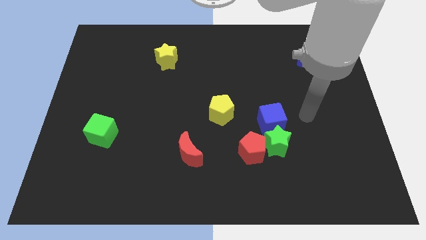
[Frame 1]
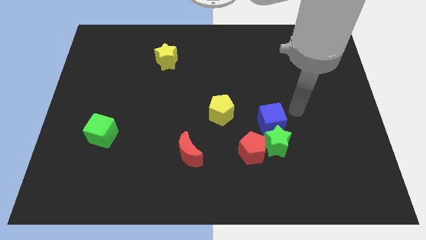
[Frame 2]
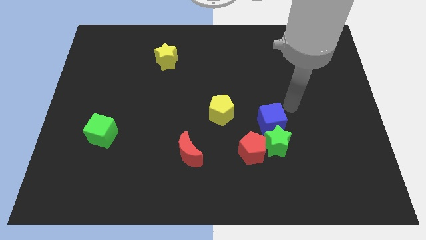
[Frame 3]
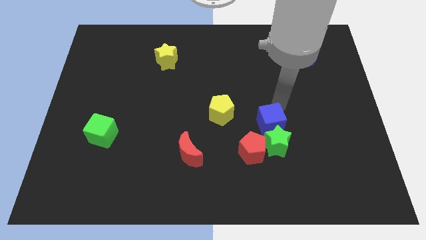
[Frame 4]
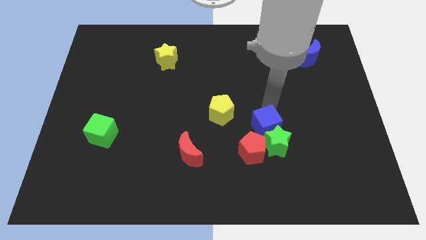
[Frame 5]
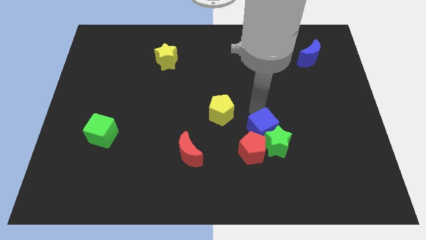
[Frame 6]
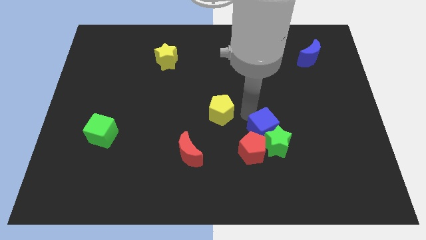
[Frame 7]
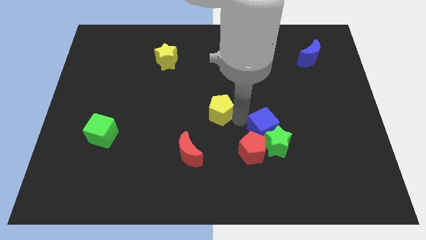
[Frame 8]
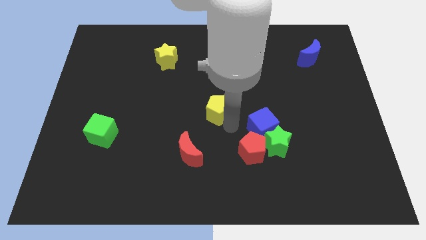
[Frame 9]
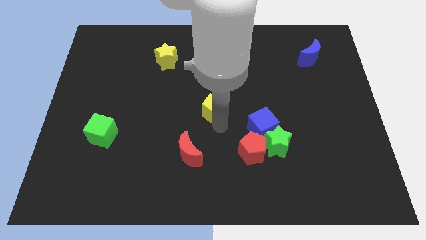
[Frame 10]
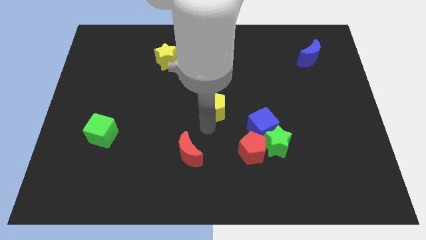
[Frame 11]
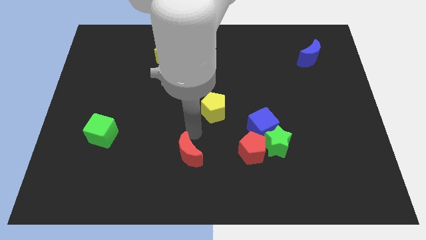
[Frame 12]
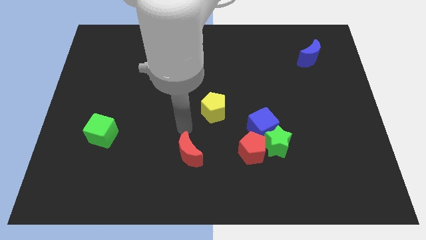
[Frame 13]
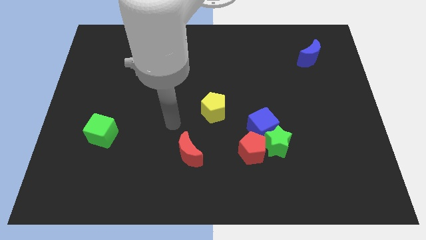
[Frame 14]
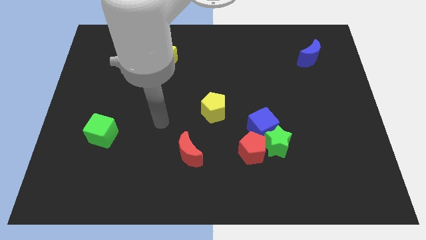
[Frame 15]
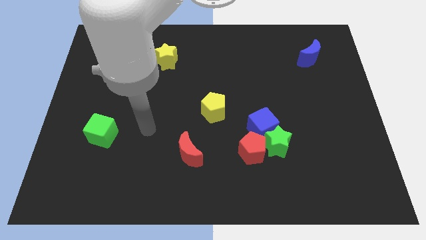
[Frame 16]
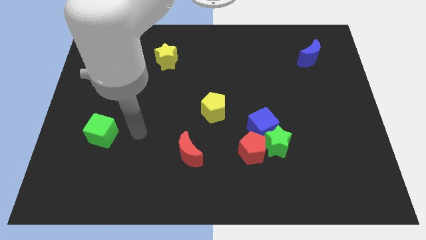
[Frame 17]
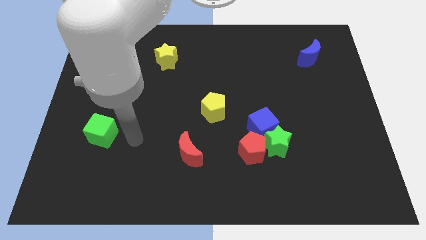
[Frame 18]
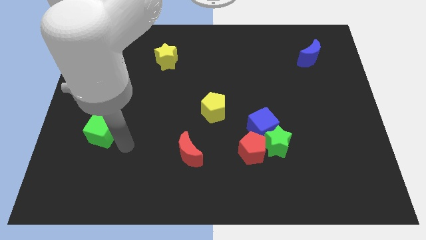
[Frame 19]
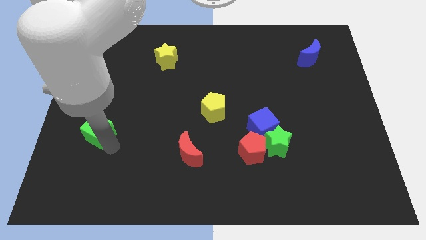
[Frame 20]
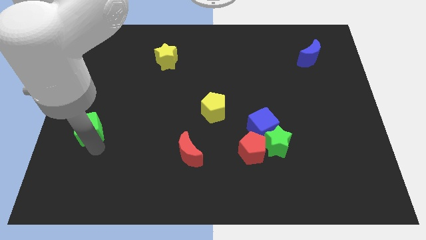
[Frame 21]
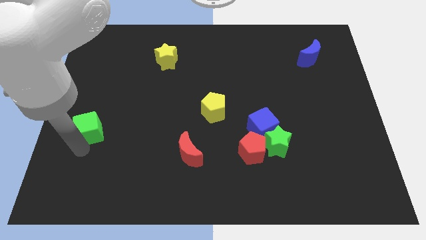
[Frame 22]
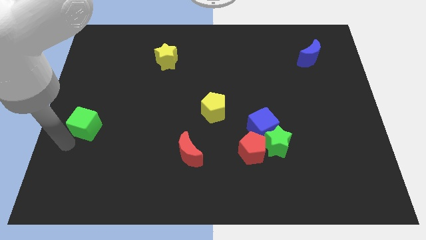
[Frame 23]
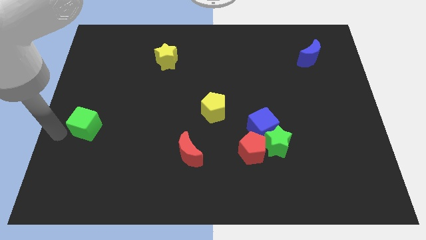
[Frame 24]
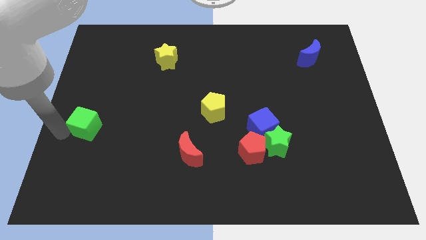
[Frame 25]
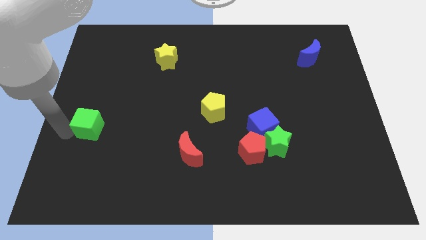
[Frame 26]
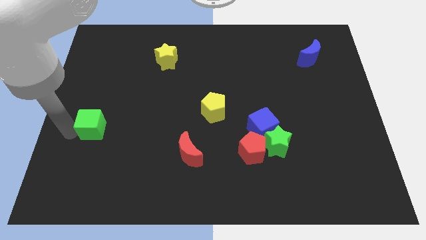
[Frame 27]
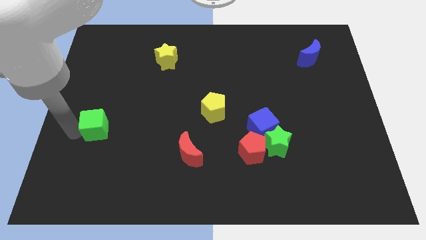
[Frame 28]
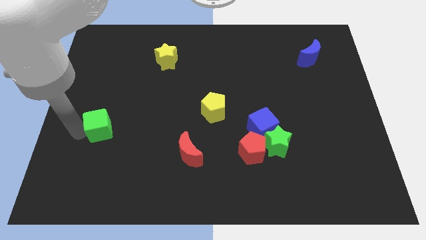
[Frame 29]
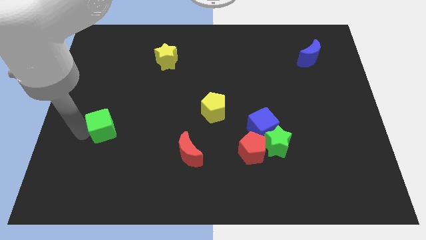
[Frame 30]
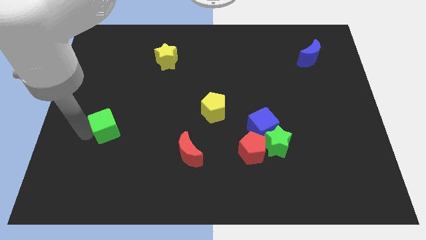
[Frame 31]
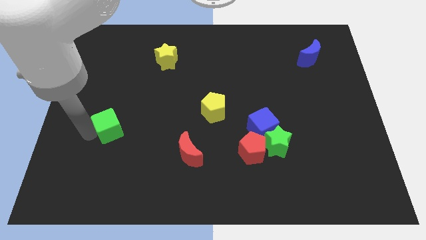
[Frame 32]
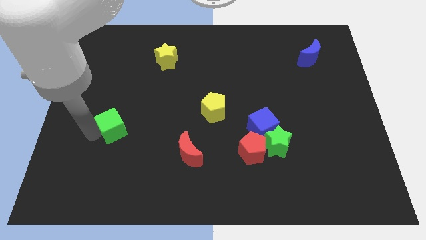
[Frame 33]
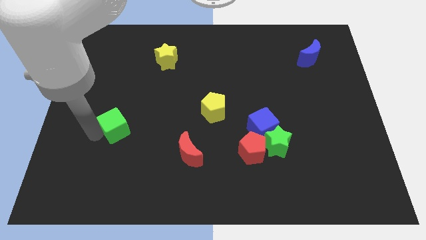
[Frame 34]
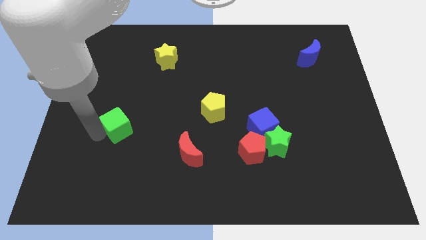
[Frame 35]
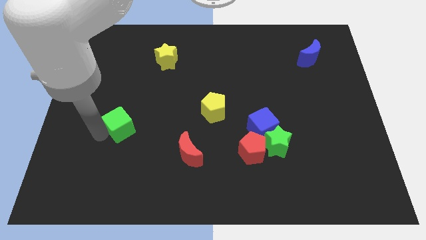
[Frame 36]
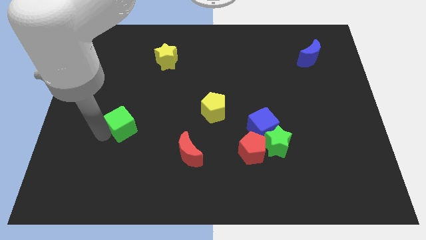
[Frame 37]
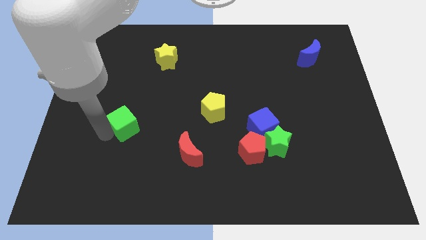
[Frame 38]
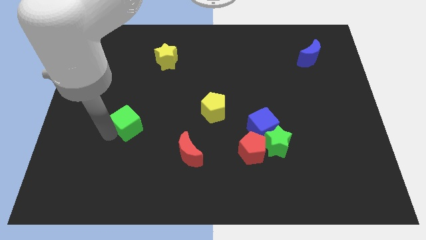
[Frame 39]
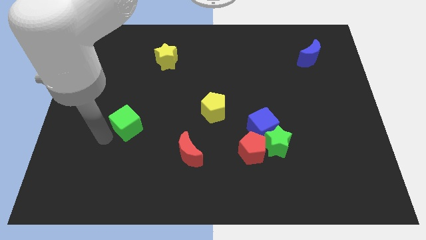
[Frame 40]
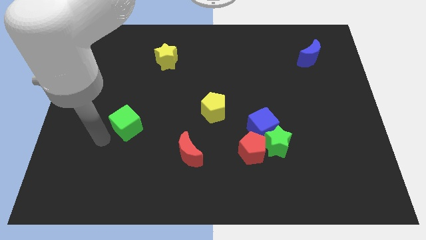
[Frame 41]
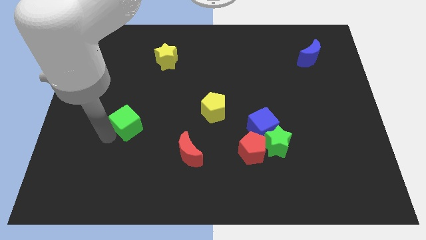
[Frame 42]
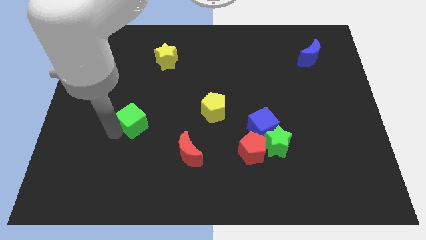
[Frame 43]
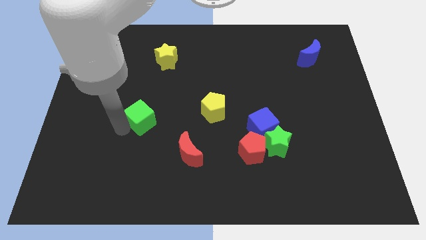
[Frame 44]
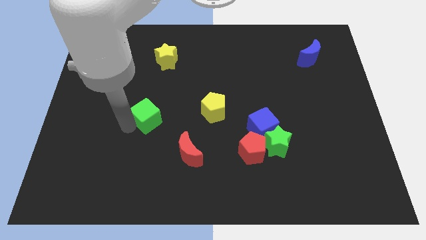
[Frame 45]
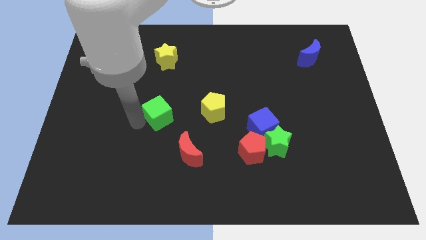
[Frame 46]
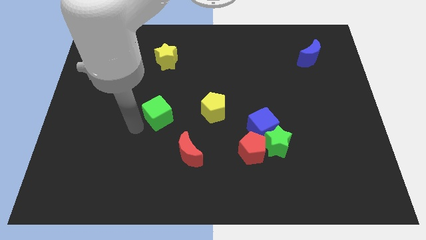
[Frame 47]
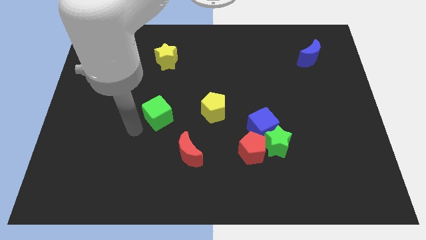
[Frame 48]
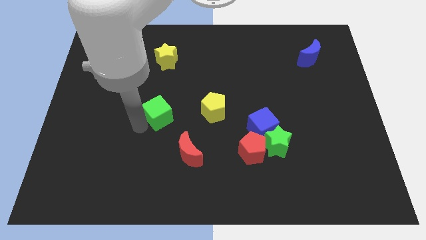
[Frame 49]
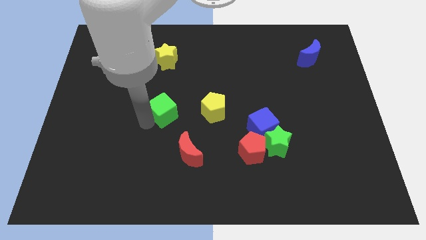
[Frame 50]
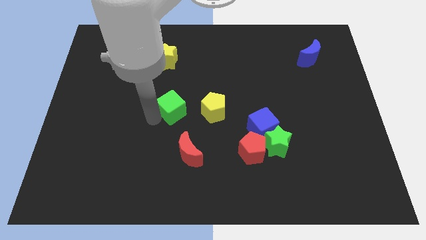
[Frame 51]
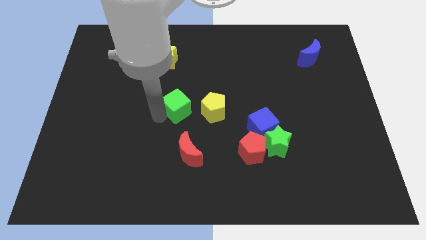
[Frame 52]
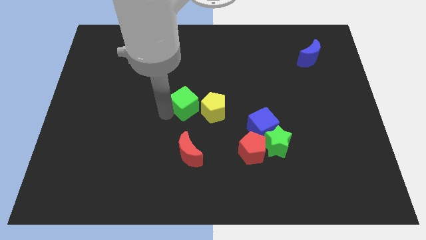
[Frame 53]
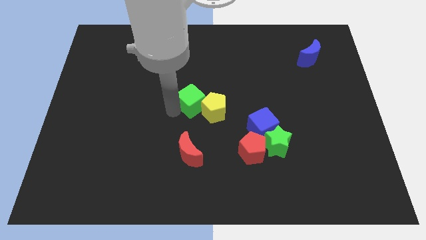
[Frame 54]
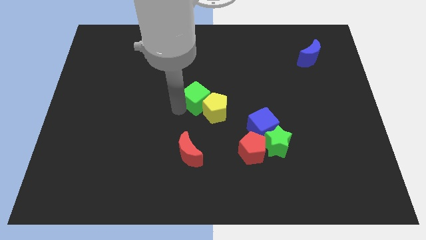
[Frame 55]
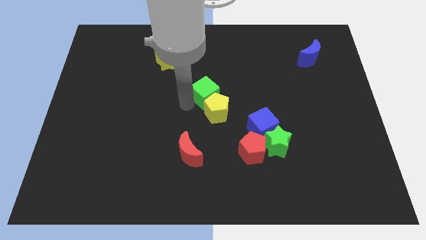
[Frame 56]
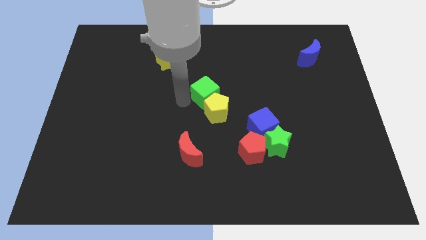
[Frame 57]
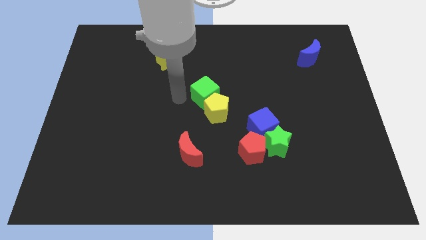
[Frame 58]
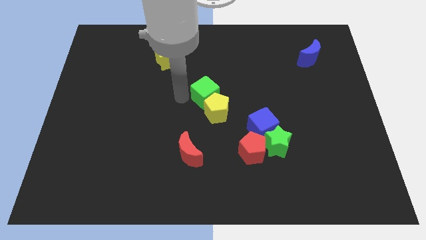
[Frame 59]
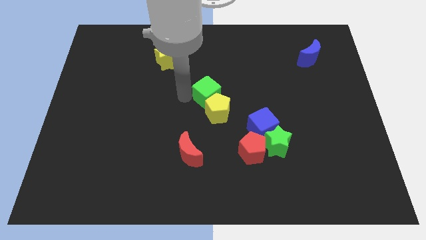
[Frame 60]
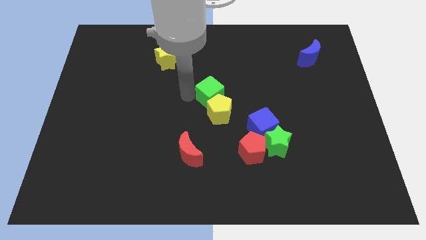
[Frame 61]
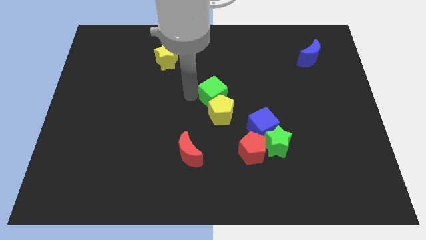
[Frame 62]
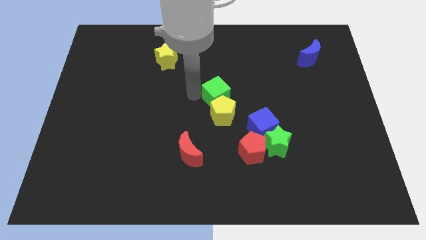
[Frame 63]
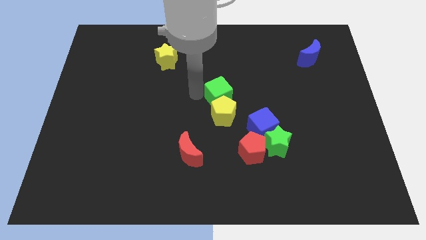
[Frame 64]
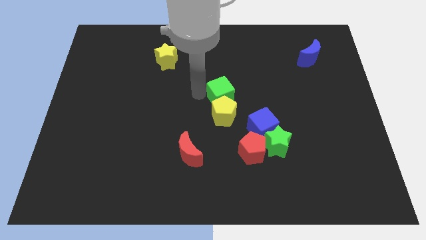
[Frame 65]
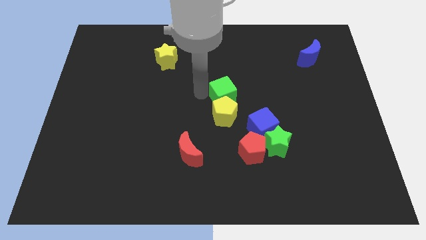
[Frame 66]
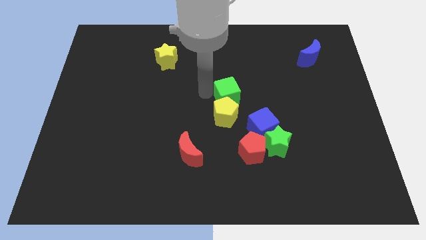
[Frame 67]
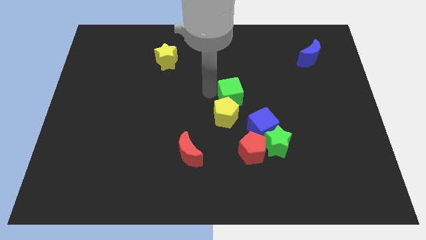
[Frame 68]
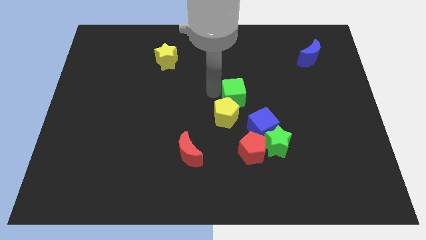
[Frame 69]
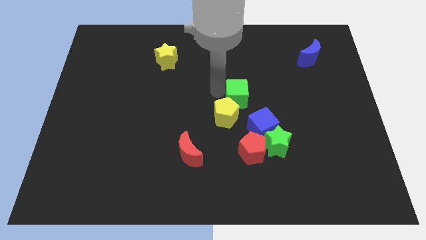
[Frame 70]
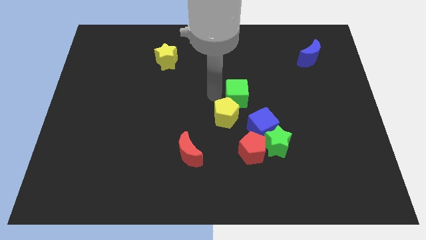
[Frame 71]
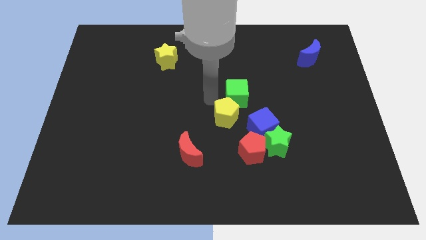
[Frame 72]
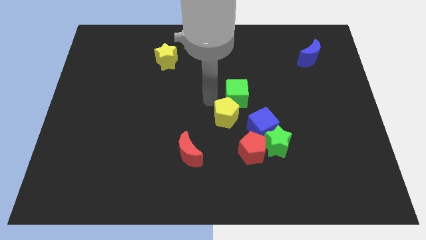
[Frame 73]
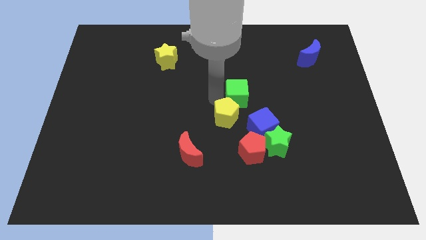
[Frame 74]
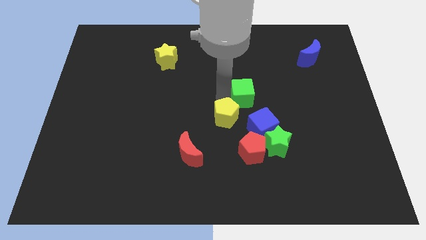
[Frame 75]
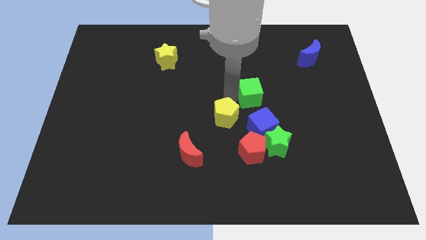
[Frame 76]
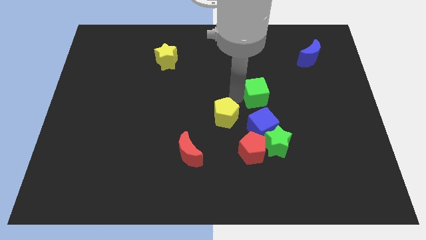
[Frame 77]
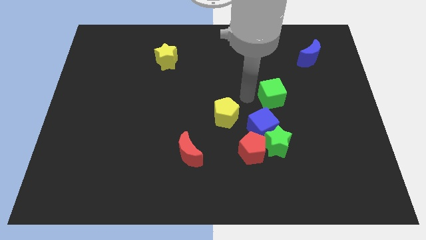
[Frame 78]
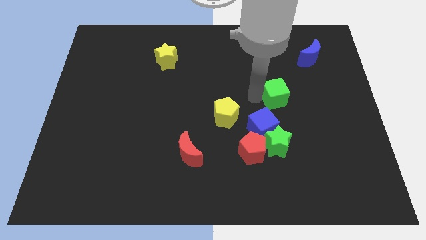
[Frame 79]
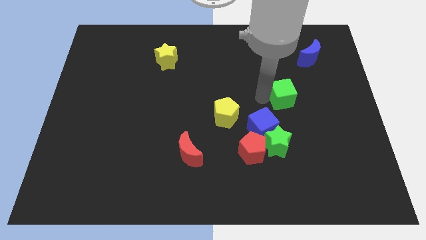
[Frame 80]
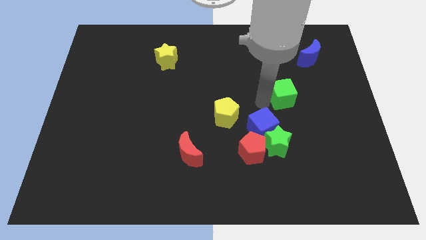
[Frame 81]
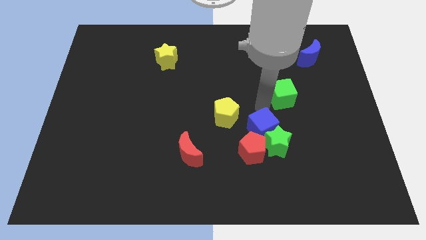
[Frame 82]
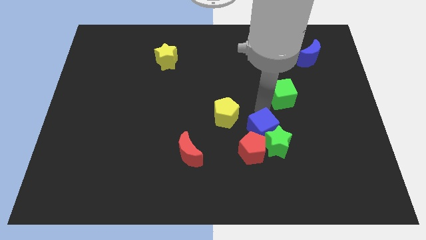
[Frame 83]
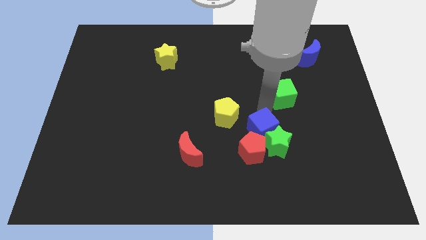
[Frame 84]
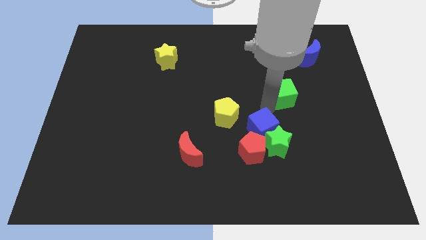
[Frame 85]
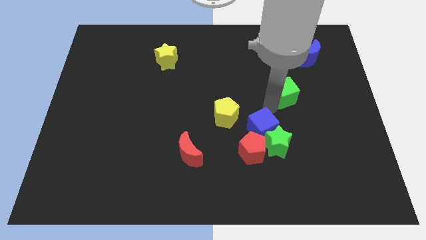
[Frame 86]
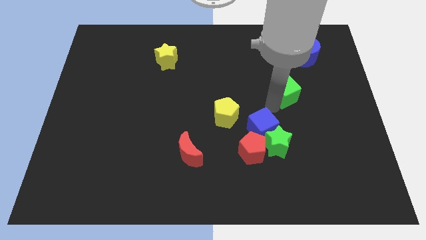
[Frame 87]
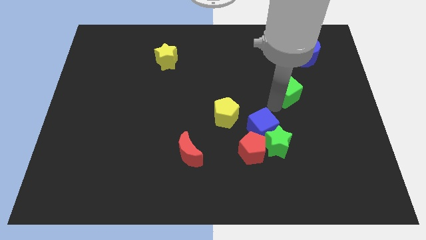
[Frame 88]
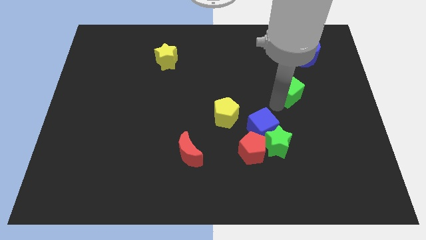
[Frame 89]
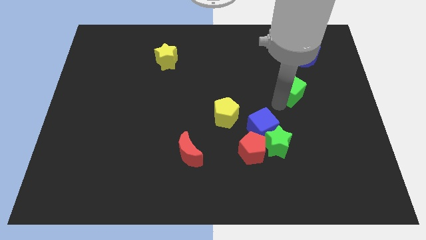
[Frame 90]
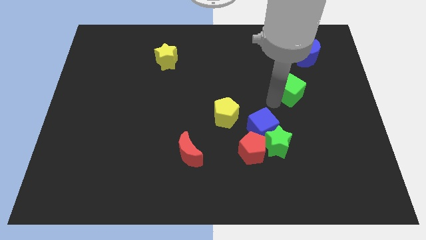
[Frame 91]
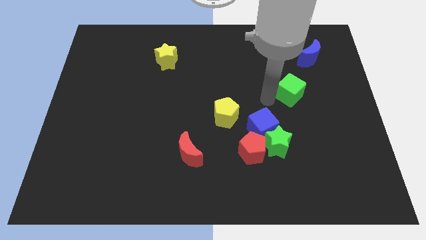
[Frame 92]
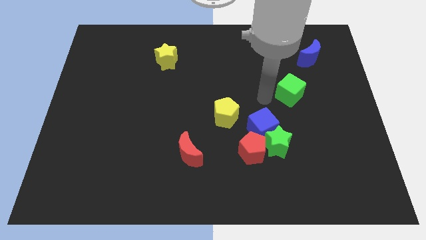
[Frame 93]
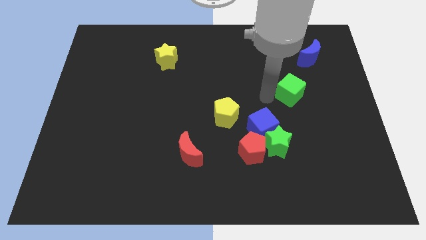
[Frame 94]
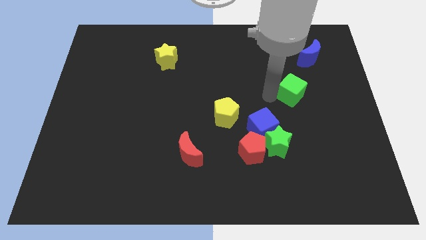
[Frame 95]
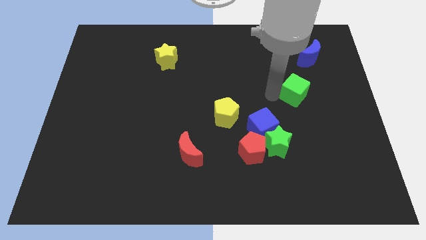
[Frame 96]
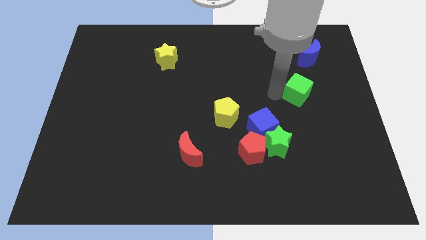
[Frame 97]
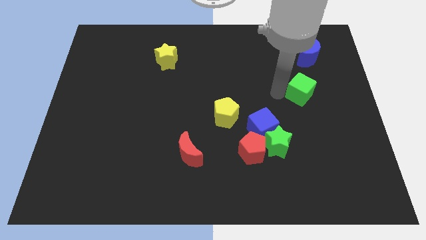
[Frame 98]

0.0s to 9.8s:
move the green cube to the bottom side of the blue moon
